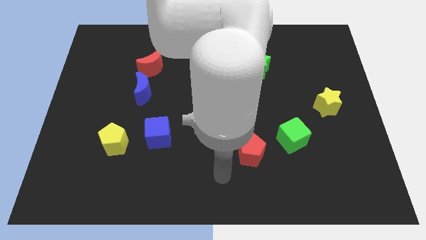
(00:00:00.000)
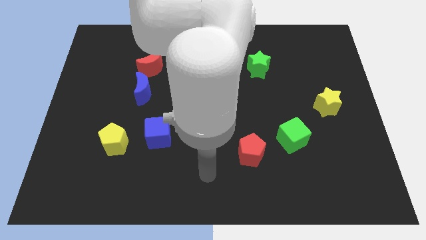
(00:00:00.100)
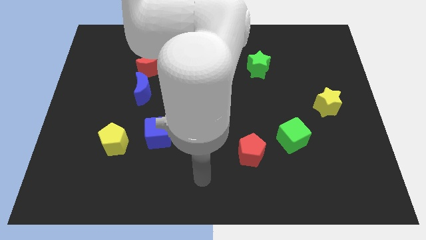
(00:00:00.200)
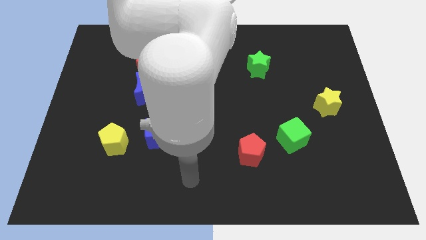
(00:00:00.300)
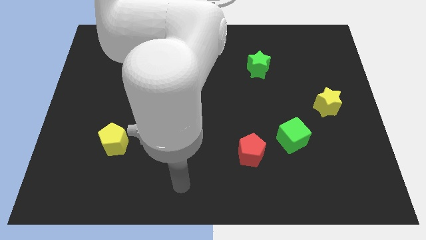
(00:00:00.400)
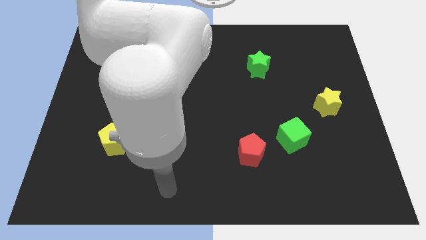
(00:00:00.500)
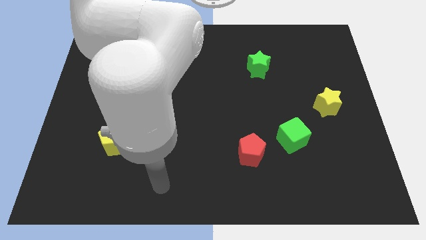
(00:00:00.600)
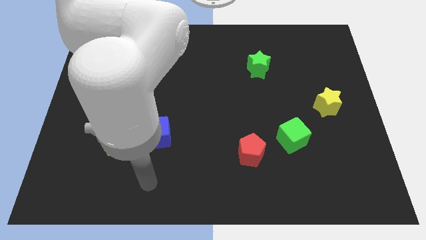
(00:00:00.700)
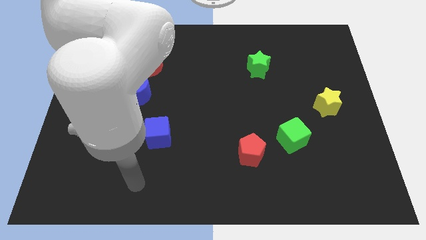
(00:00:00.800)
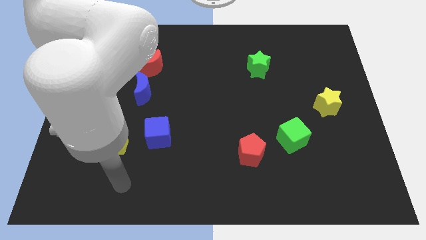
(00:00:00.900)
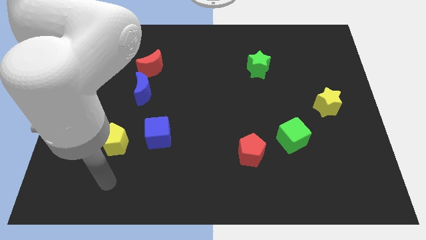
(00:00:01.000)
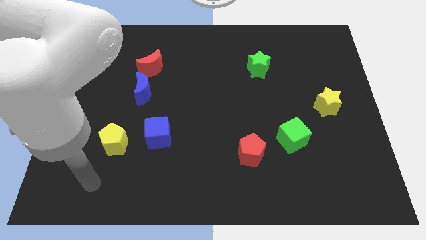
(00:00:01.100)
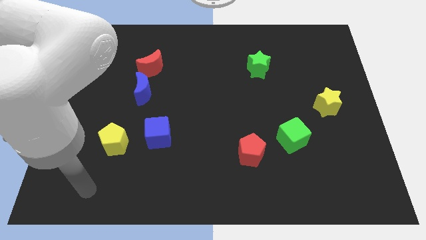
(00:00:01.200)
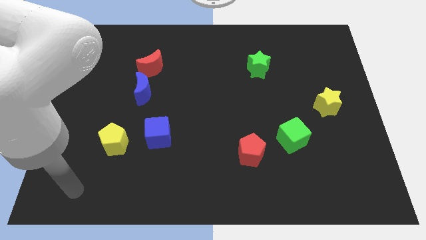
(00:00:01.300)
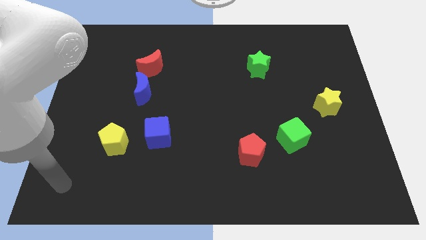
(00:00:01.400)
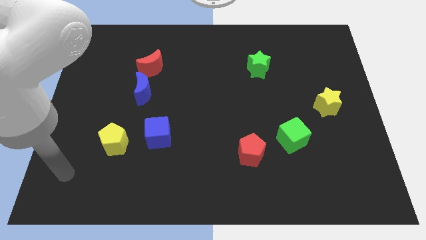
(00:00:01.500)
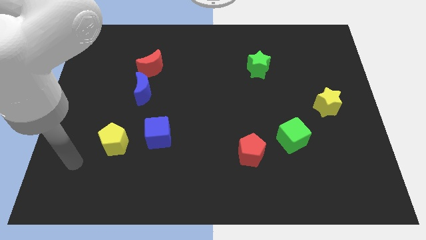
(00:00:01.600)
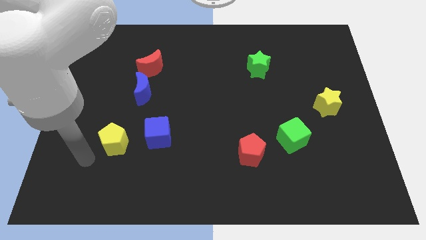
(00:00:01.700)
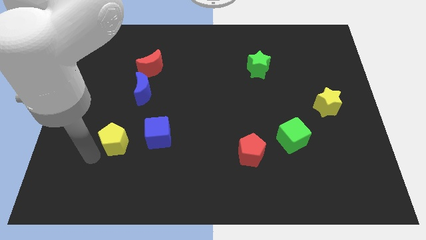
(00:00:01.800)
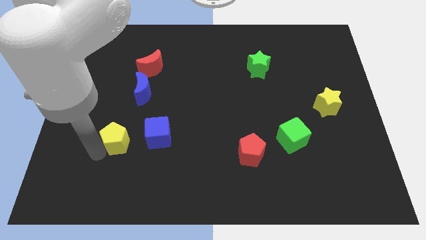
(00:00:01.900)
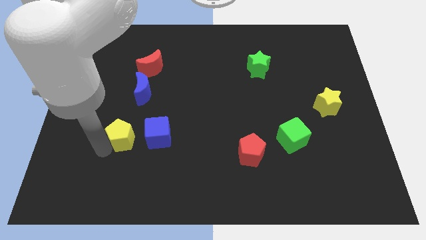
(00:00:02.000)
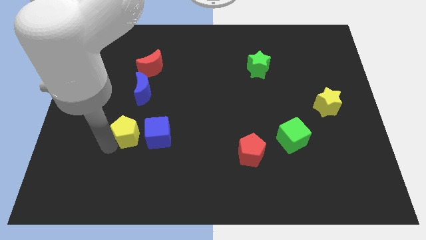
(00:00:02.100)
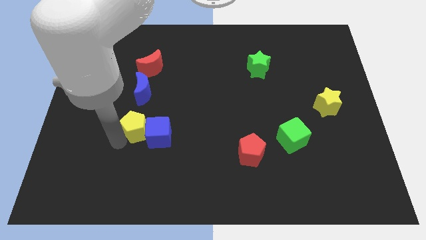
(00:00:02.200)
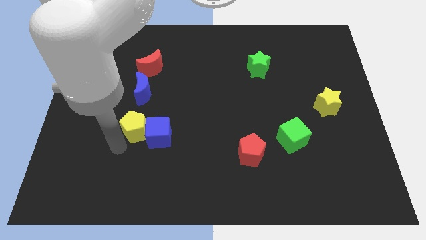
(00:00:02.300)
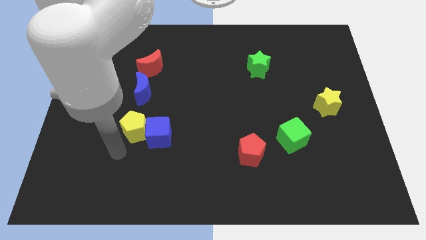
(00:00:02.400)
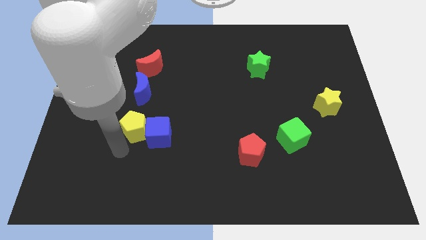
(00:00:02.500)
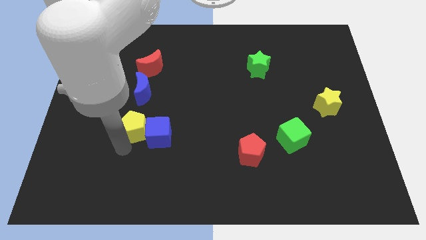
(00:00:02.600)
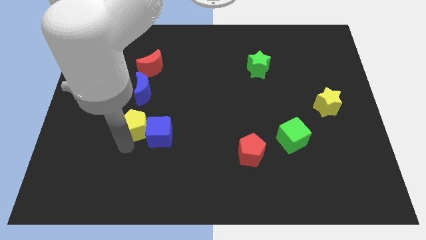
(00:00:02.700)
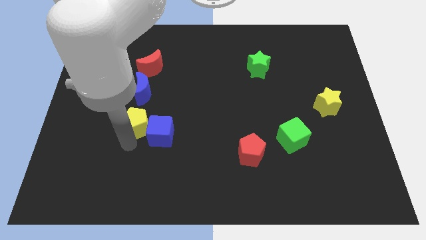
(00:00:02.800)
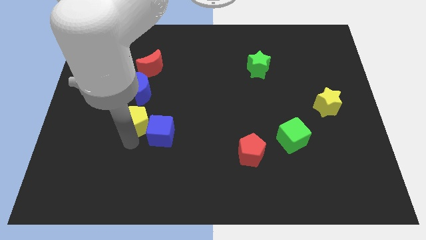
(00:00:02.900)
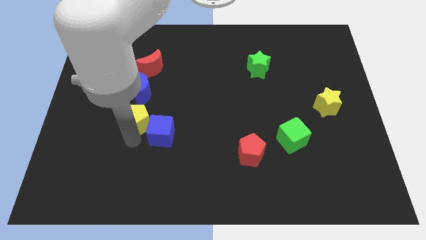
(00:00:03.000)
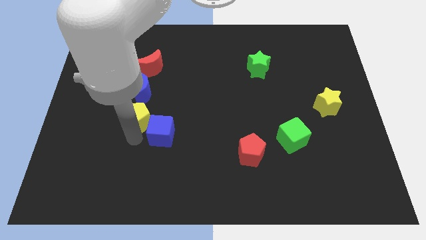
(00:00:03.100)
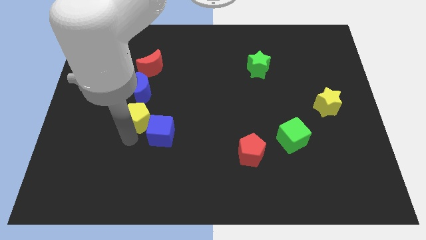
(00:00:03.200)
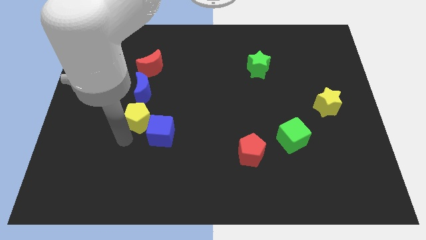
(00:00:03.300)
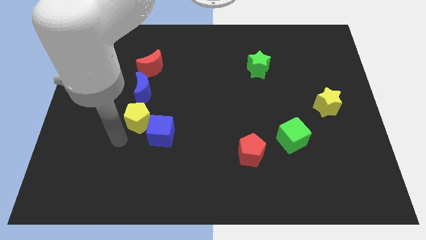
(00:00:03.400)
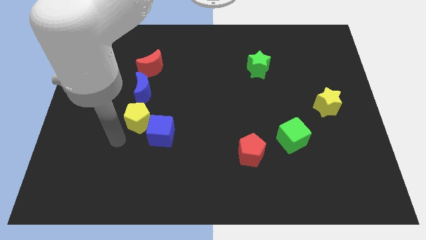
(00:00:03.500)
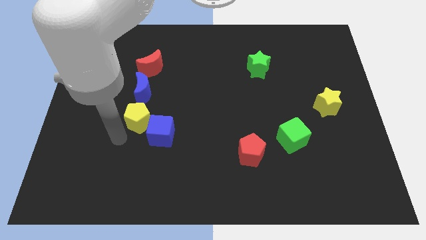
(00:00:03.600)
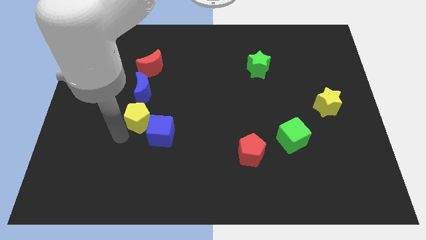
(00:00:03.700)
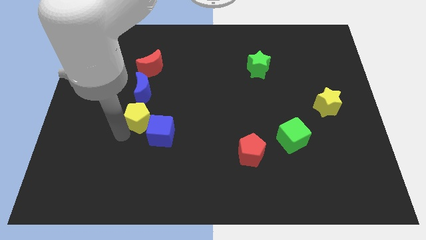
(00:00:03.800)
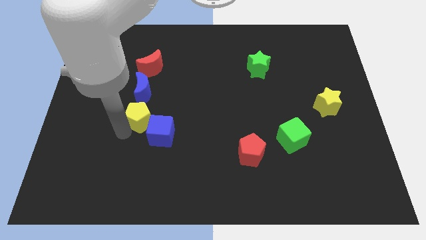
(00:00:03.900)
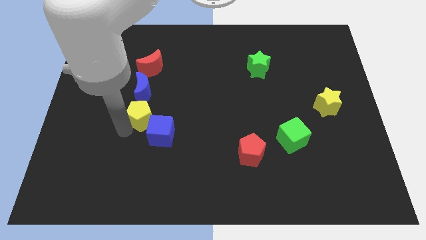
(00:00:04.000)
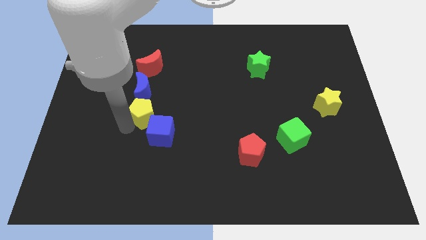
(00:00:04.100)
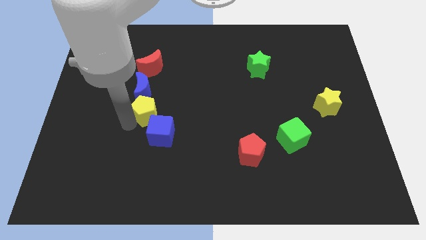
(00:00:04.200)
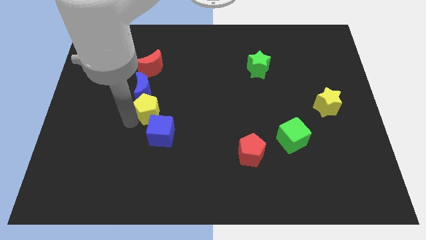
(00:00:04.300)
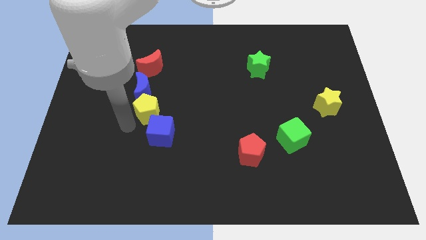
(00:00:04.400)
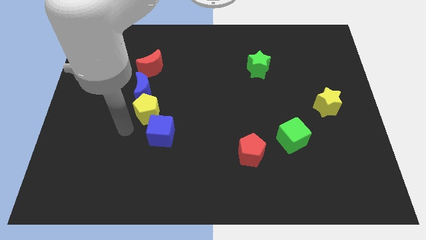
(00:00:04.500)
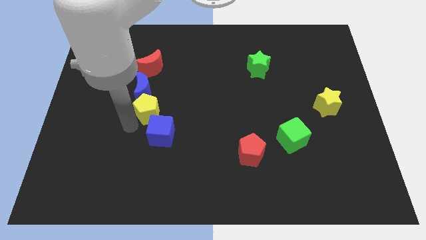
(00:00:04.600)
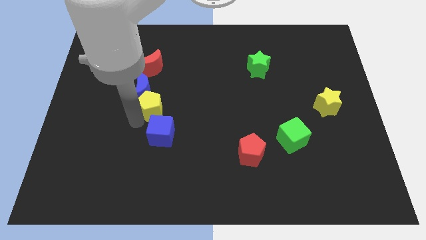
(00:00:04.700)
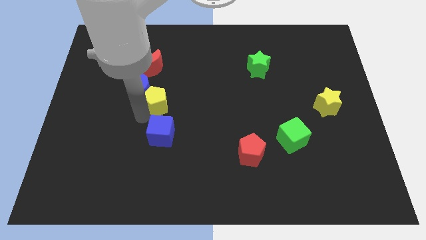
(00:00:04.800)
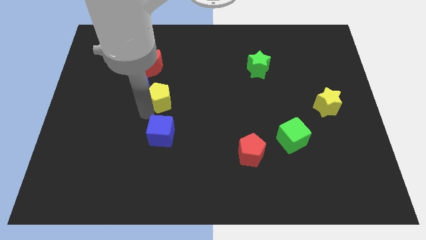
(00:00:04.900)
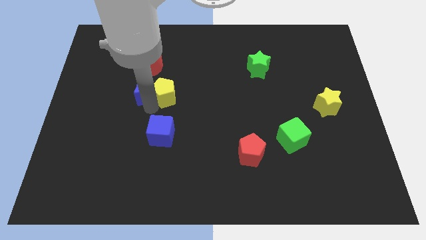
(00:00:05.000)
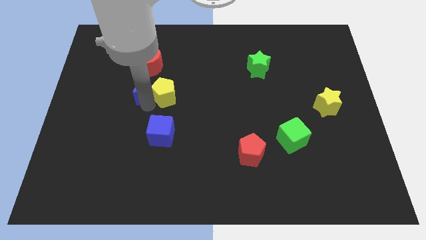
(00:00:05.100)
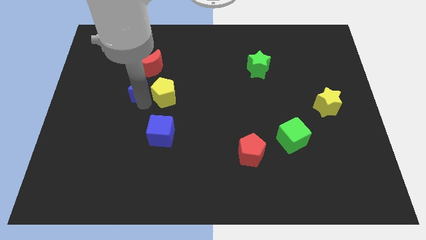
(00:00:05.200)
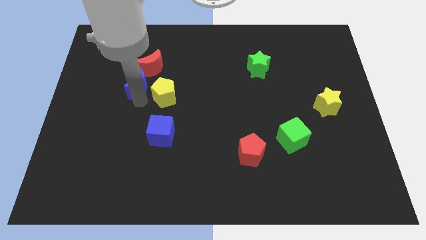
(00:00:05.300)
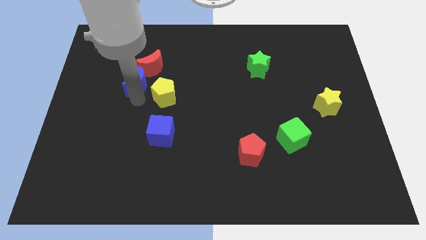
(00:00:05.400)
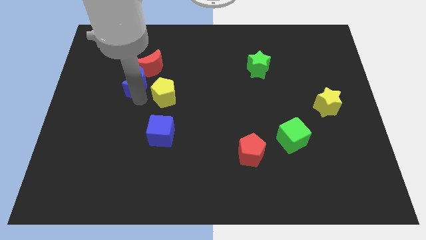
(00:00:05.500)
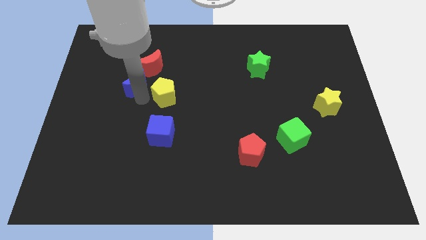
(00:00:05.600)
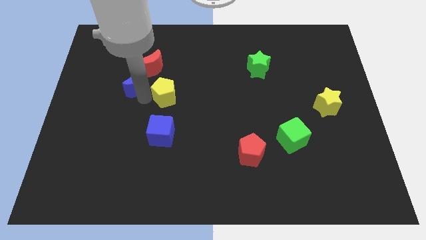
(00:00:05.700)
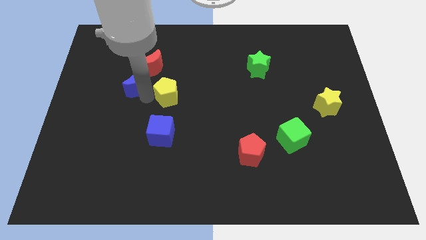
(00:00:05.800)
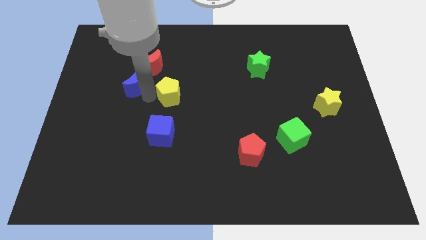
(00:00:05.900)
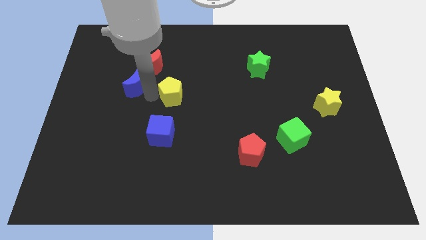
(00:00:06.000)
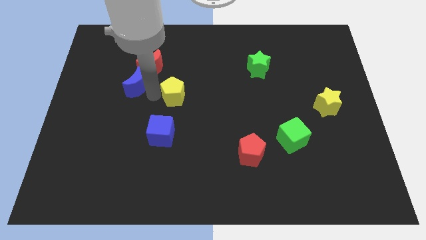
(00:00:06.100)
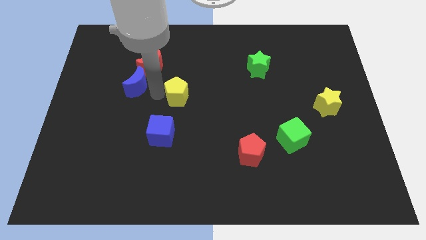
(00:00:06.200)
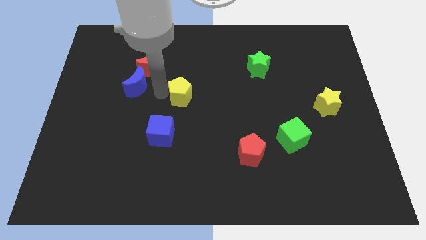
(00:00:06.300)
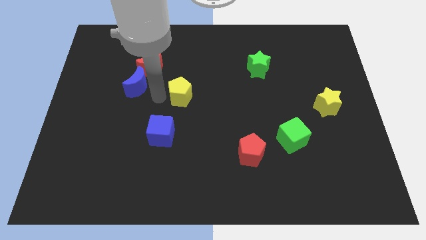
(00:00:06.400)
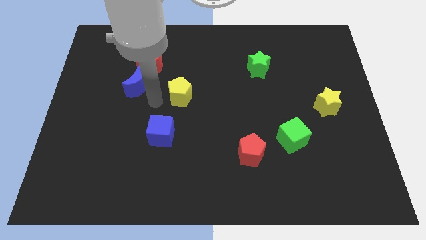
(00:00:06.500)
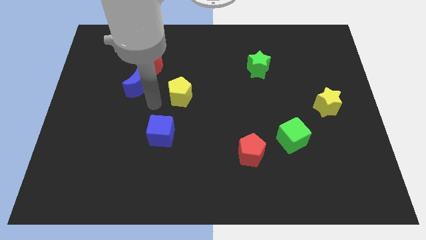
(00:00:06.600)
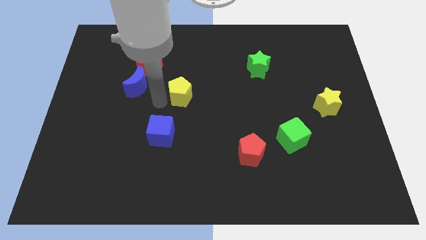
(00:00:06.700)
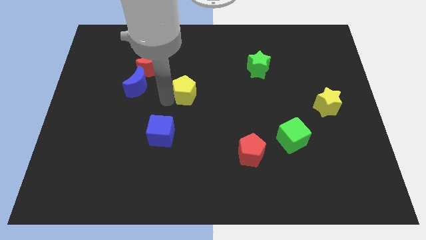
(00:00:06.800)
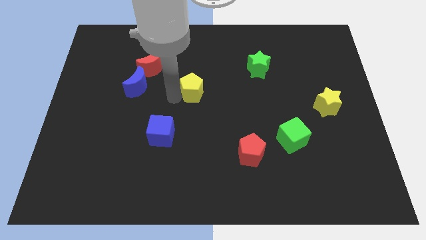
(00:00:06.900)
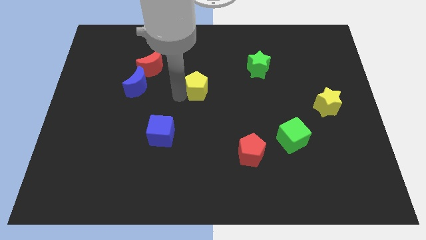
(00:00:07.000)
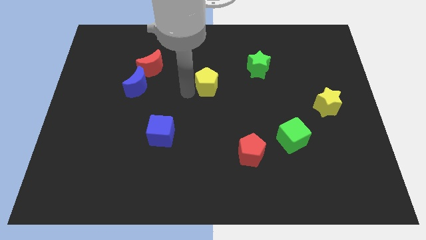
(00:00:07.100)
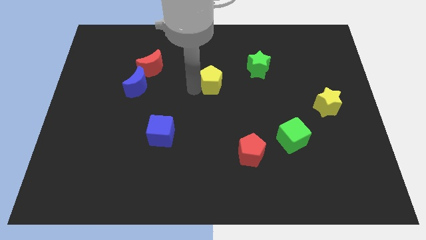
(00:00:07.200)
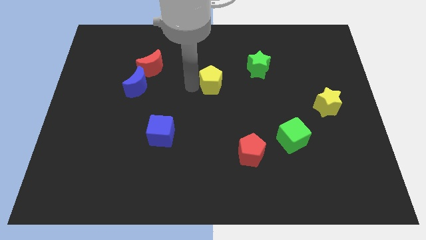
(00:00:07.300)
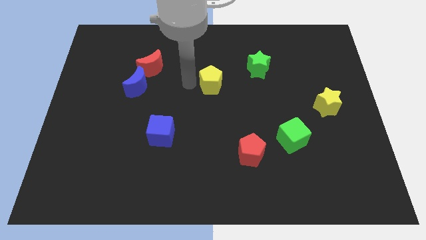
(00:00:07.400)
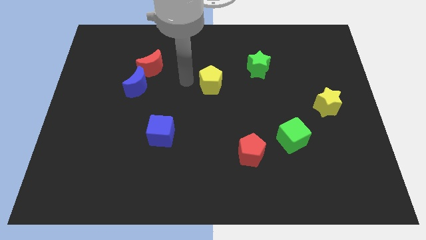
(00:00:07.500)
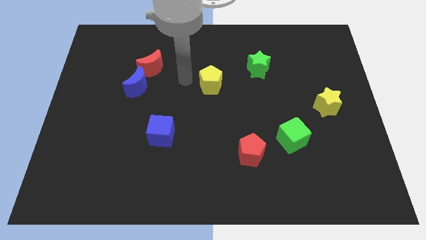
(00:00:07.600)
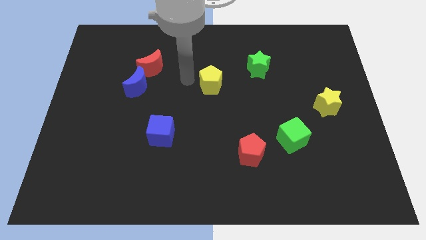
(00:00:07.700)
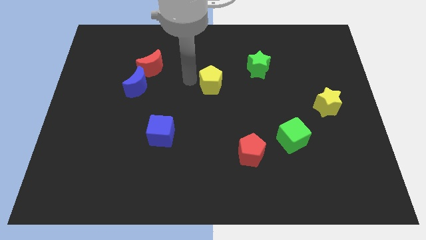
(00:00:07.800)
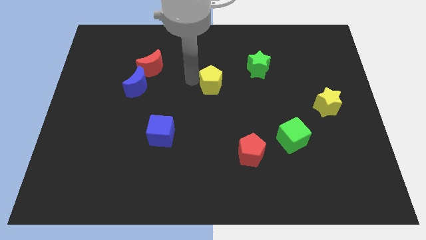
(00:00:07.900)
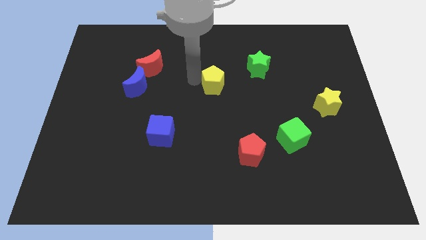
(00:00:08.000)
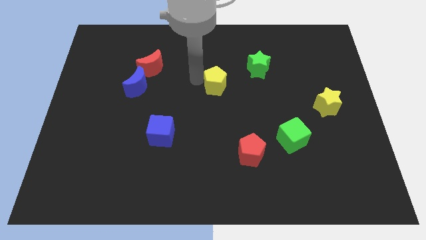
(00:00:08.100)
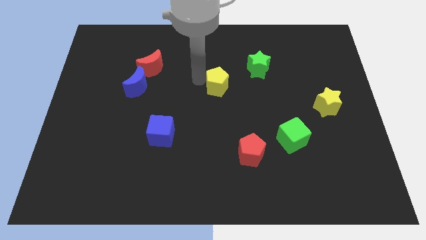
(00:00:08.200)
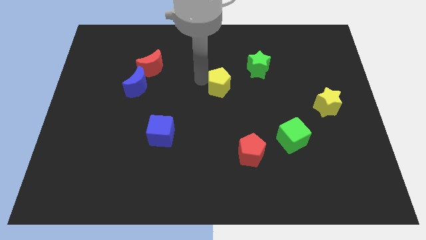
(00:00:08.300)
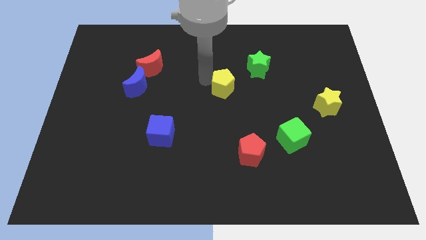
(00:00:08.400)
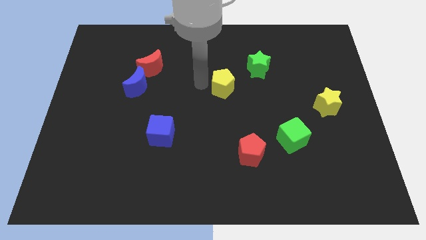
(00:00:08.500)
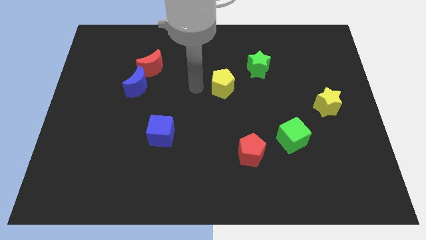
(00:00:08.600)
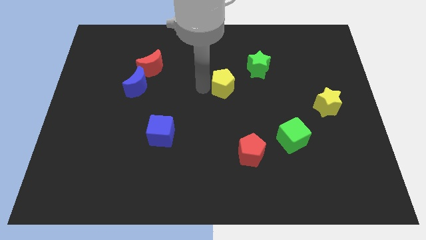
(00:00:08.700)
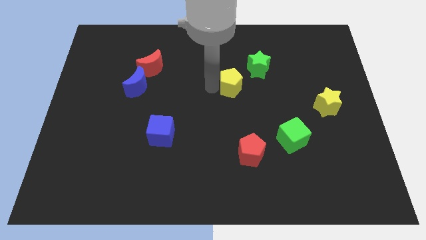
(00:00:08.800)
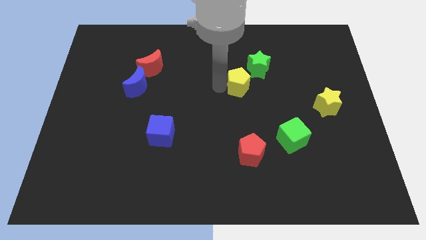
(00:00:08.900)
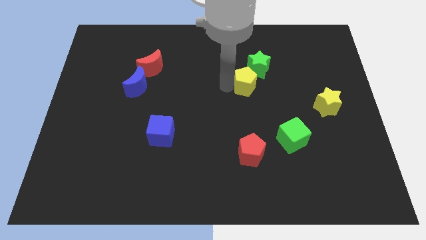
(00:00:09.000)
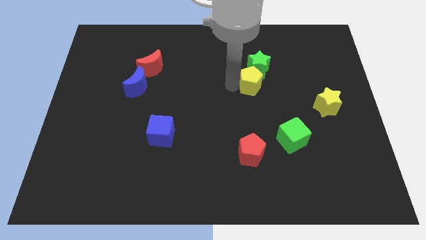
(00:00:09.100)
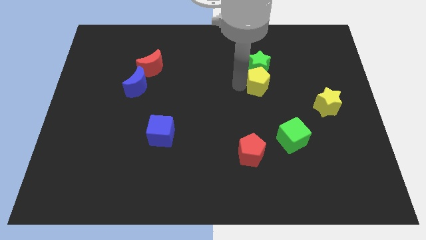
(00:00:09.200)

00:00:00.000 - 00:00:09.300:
put the yellow pentagon diagonally down and to the right of the green star
